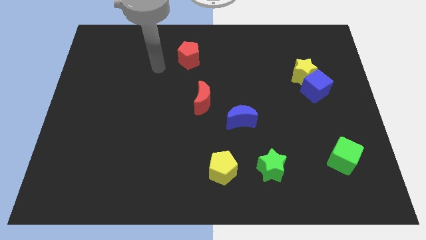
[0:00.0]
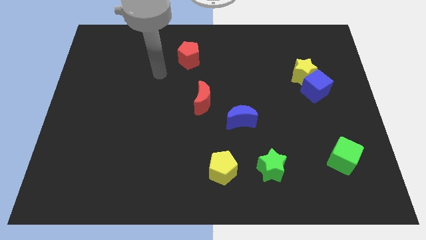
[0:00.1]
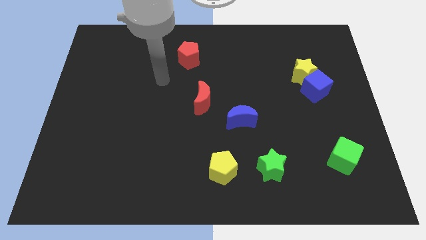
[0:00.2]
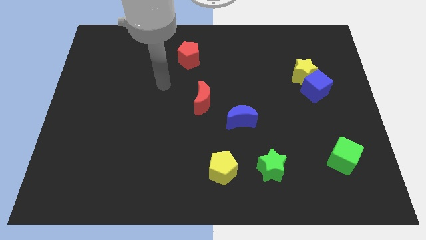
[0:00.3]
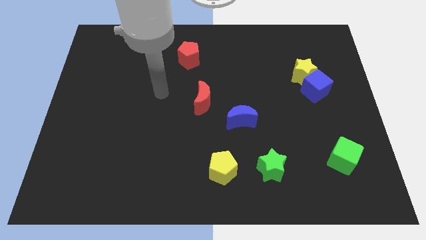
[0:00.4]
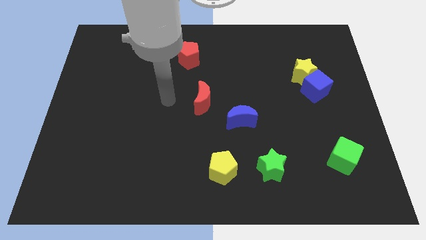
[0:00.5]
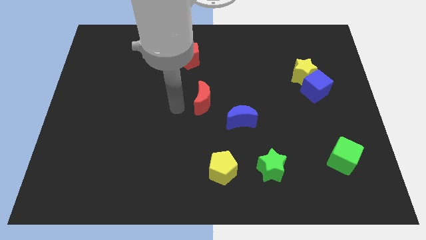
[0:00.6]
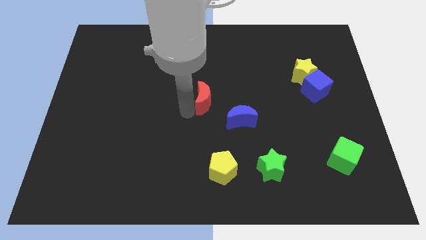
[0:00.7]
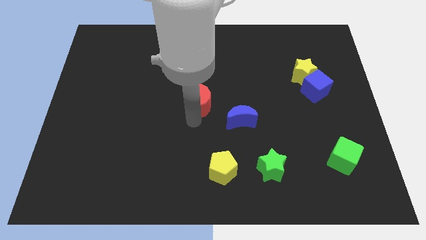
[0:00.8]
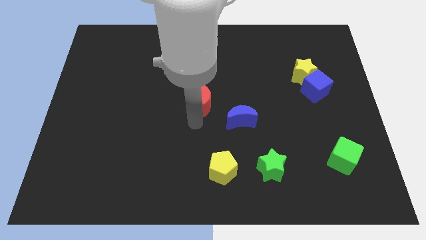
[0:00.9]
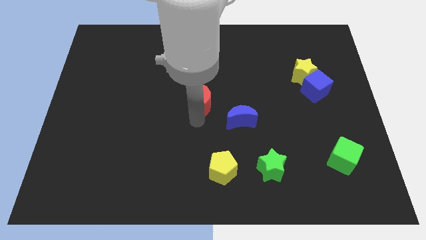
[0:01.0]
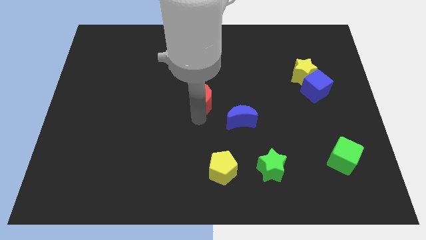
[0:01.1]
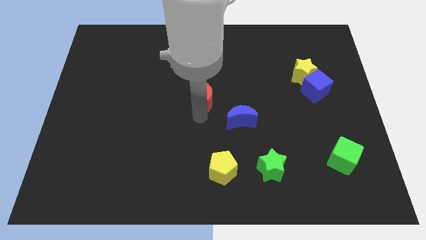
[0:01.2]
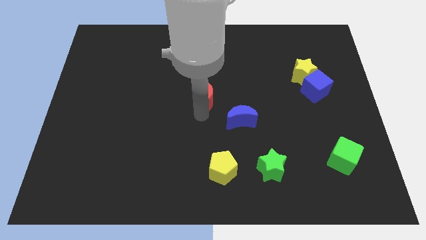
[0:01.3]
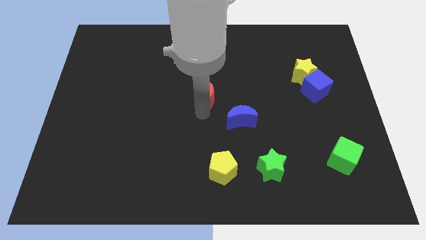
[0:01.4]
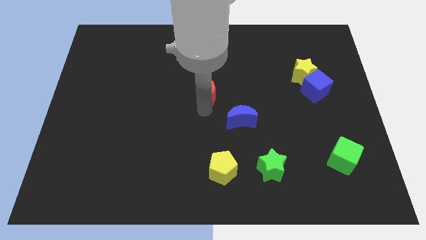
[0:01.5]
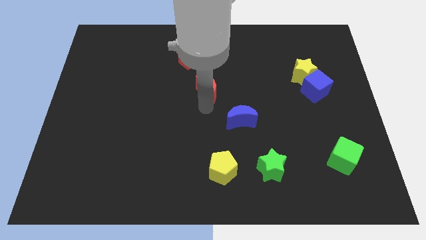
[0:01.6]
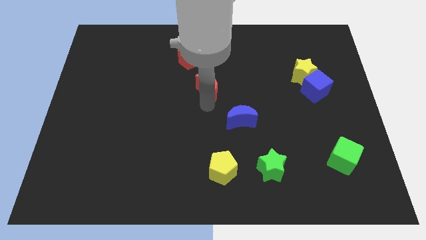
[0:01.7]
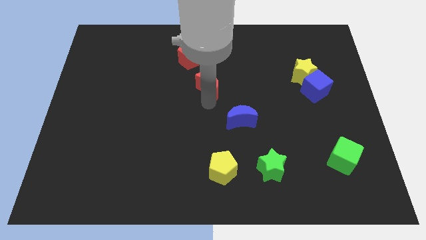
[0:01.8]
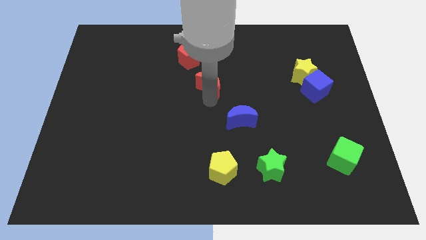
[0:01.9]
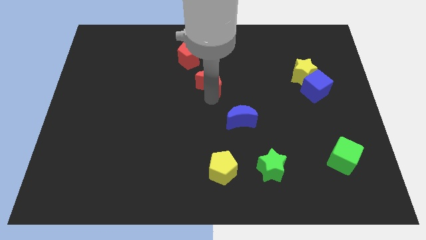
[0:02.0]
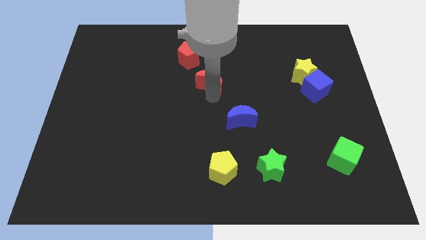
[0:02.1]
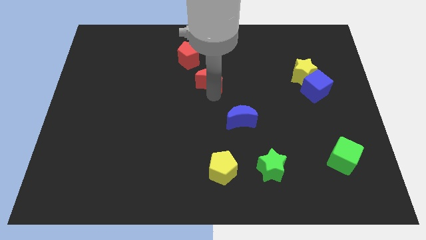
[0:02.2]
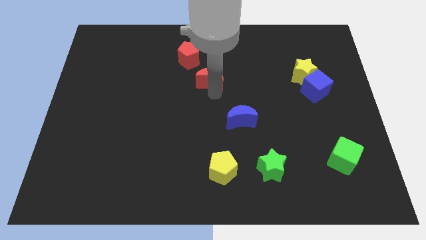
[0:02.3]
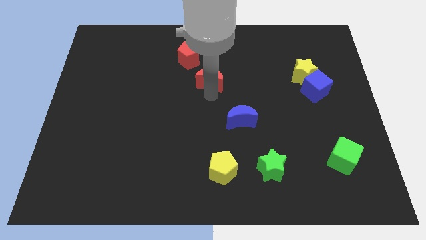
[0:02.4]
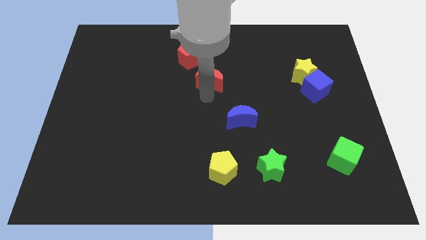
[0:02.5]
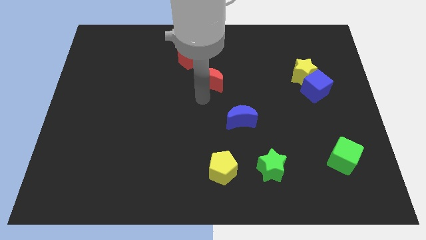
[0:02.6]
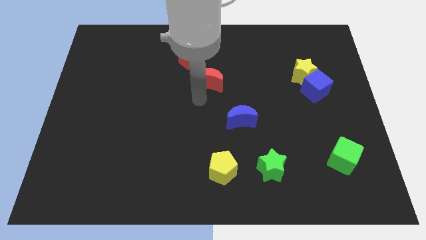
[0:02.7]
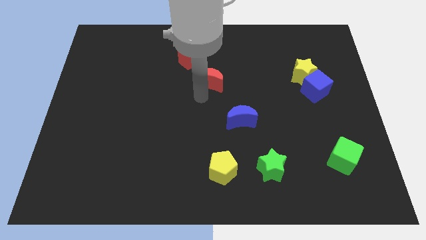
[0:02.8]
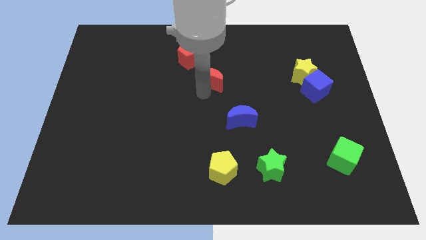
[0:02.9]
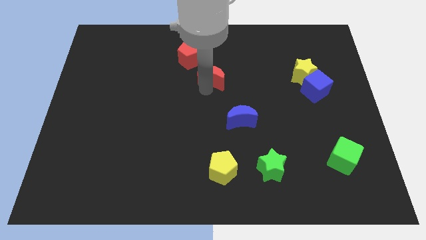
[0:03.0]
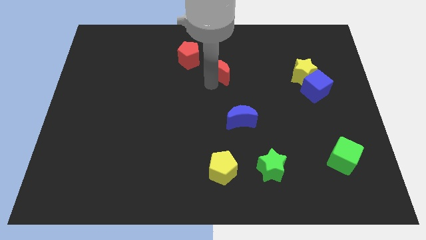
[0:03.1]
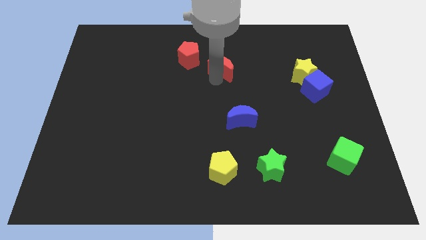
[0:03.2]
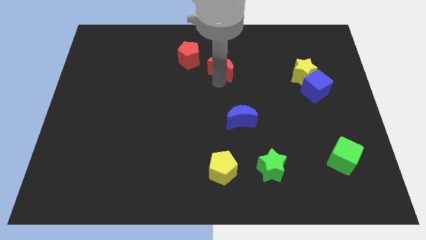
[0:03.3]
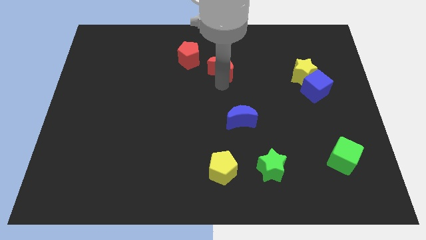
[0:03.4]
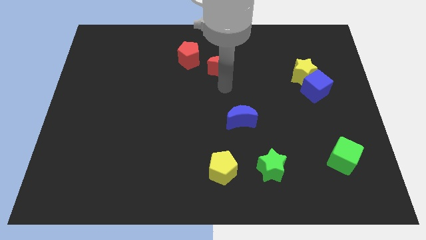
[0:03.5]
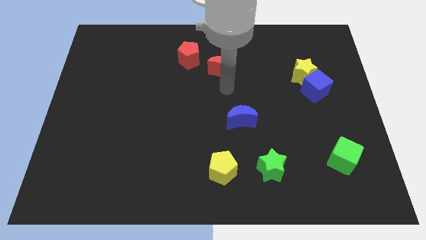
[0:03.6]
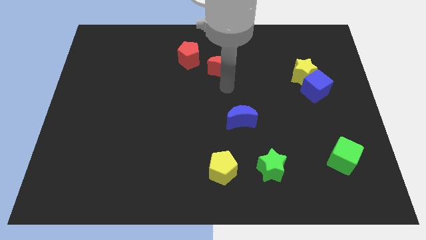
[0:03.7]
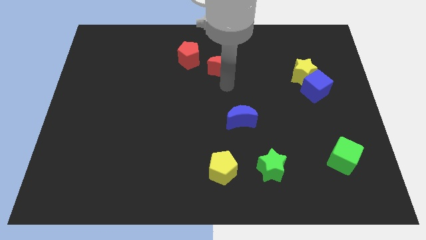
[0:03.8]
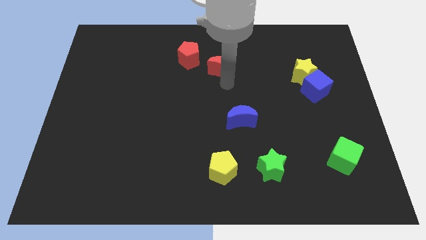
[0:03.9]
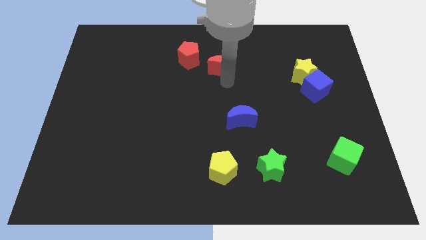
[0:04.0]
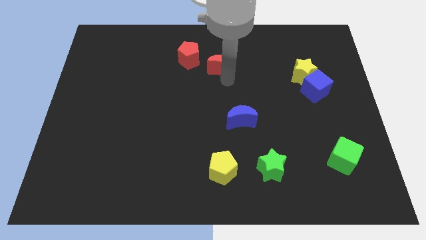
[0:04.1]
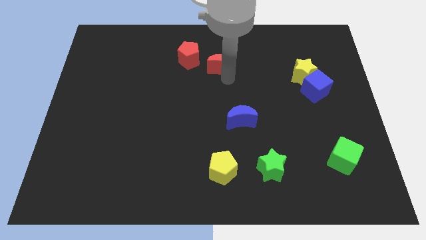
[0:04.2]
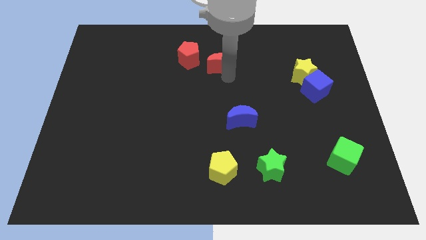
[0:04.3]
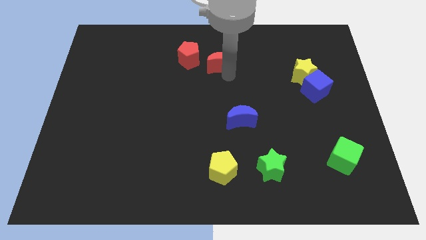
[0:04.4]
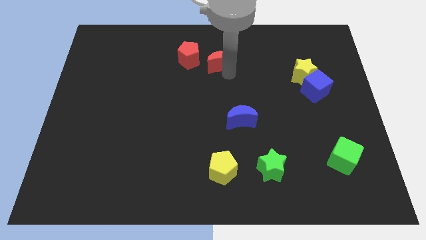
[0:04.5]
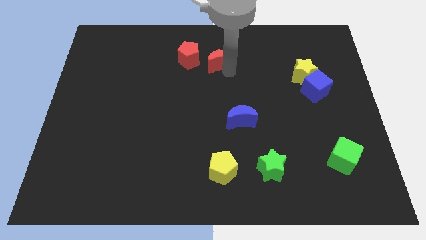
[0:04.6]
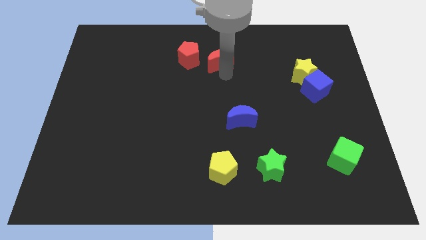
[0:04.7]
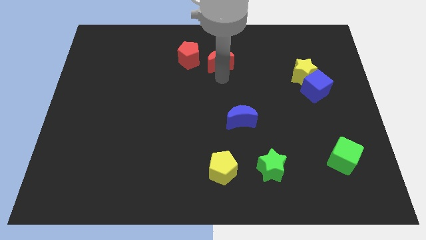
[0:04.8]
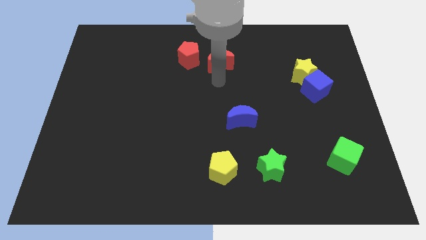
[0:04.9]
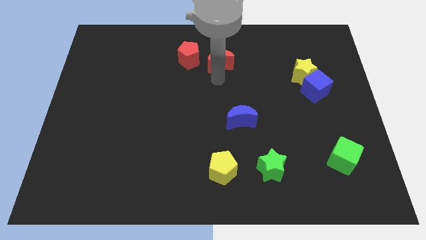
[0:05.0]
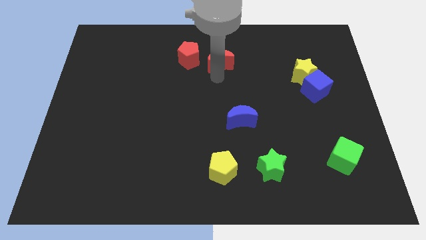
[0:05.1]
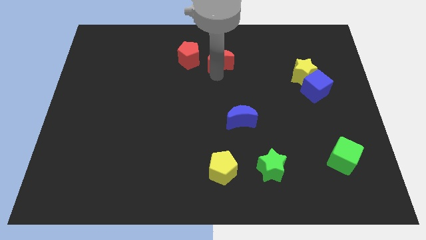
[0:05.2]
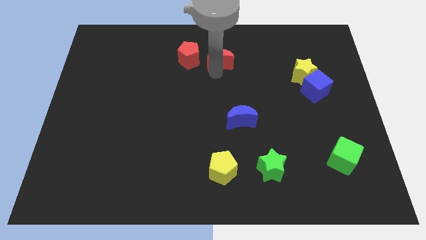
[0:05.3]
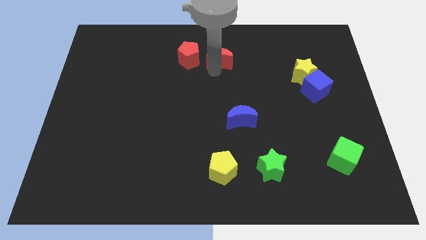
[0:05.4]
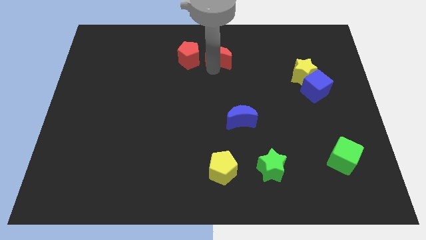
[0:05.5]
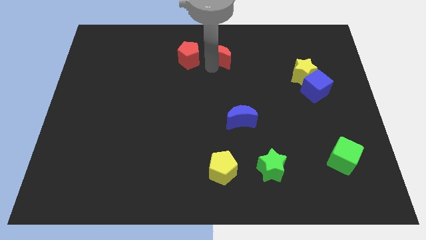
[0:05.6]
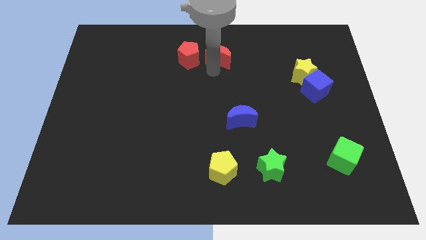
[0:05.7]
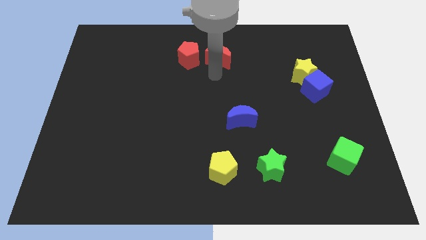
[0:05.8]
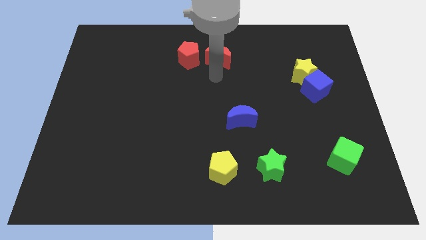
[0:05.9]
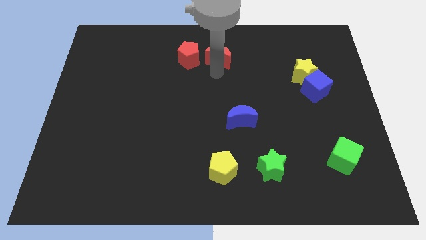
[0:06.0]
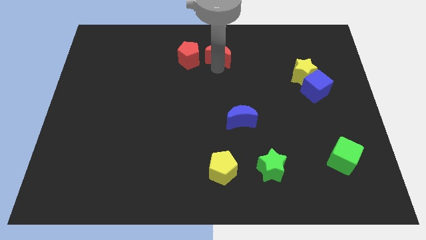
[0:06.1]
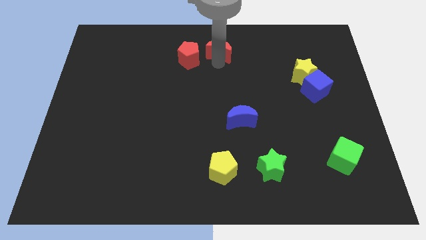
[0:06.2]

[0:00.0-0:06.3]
move the red moon to the top
